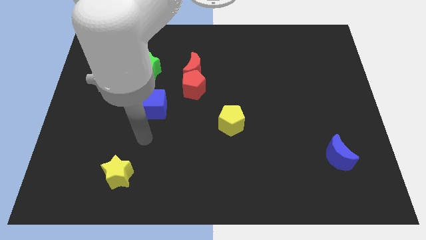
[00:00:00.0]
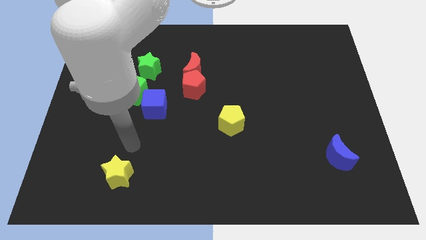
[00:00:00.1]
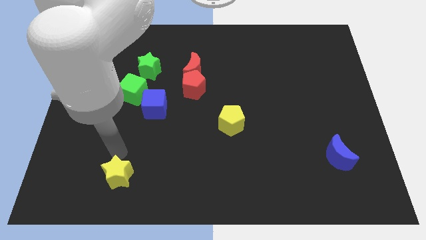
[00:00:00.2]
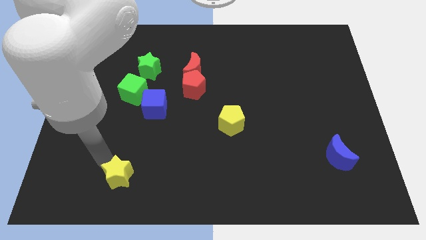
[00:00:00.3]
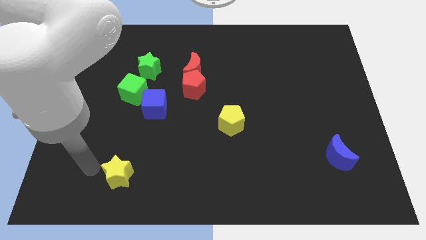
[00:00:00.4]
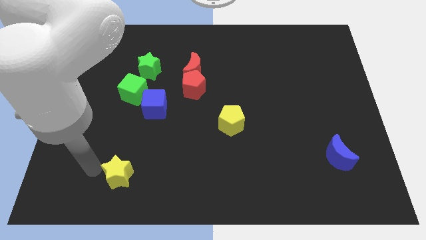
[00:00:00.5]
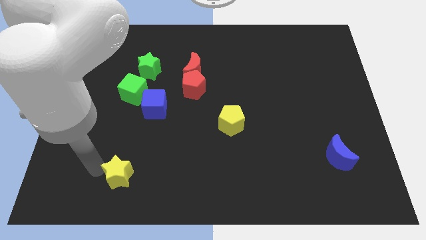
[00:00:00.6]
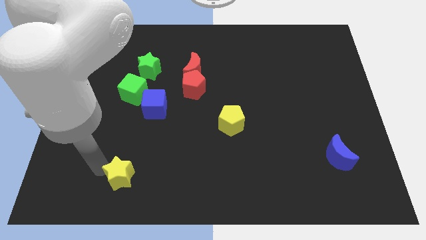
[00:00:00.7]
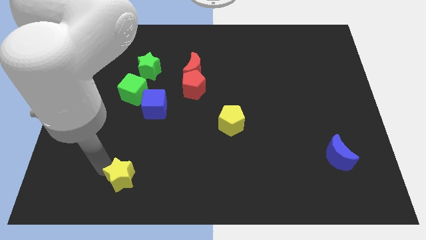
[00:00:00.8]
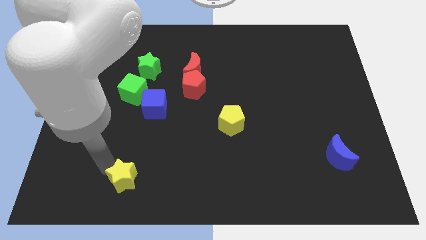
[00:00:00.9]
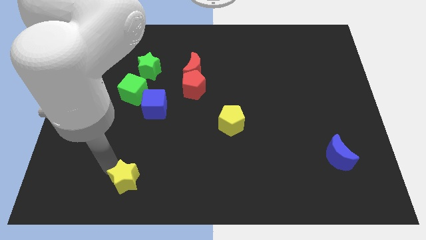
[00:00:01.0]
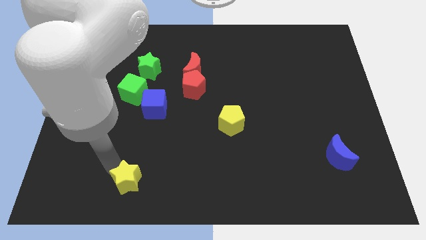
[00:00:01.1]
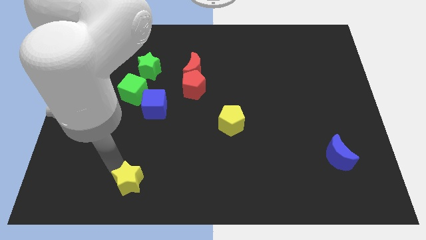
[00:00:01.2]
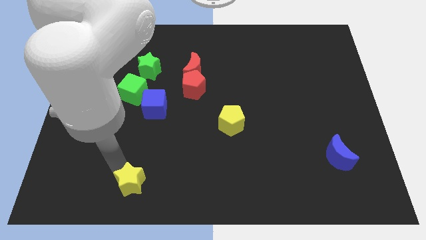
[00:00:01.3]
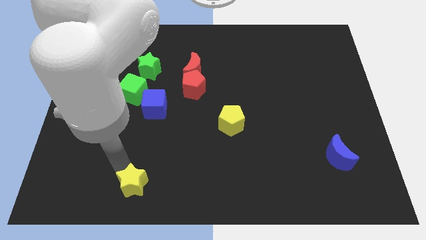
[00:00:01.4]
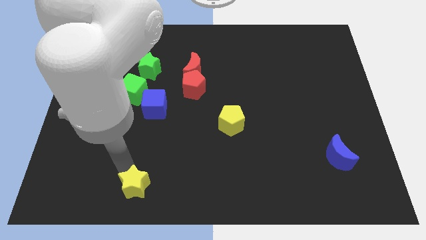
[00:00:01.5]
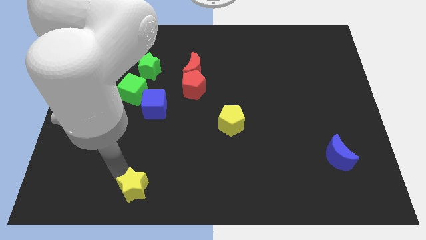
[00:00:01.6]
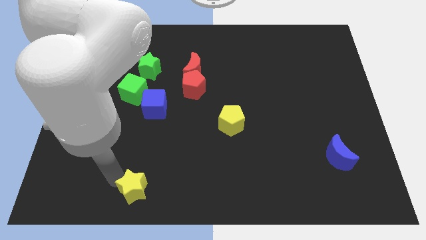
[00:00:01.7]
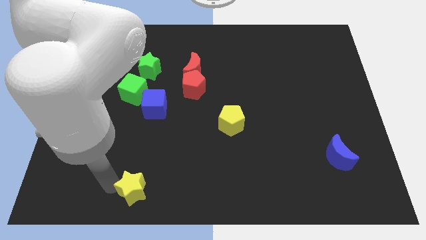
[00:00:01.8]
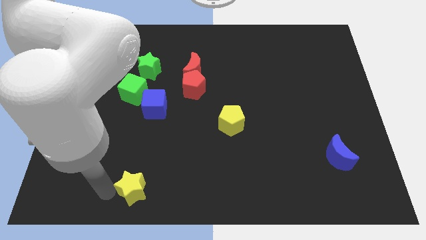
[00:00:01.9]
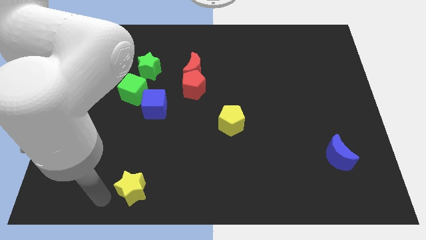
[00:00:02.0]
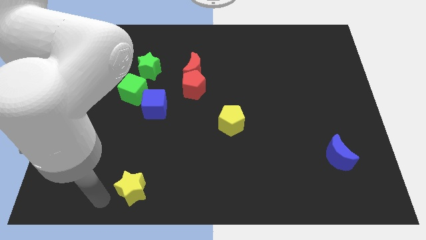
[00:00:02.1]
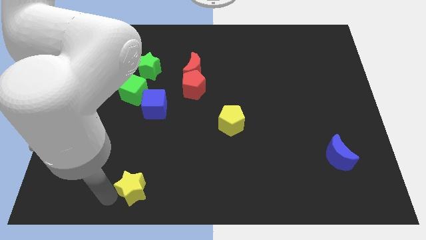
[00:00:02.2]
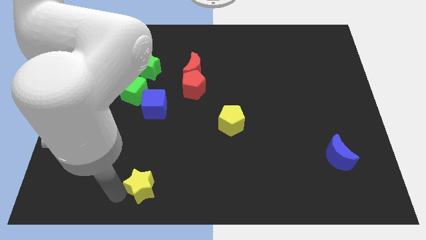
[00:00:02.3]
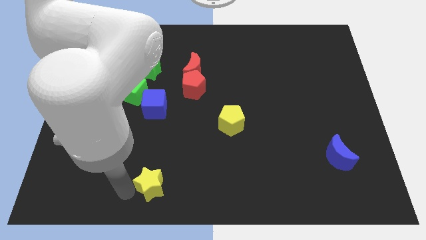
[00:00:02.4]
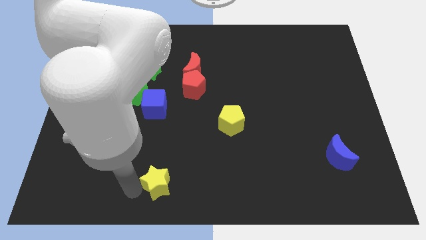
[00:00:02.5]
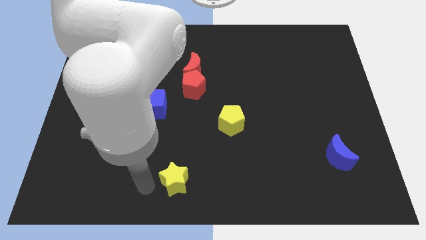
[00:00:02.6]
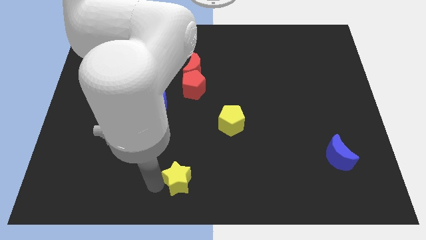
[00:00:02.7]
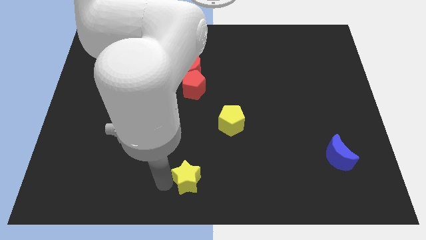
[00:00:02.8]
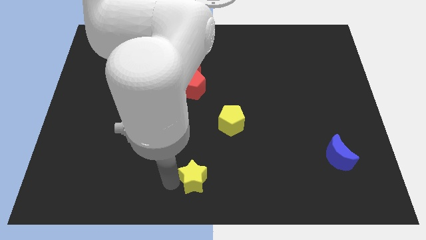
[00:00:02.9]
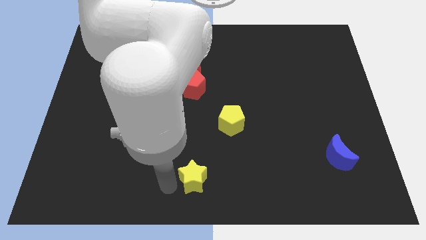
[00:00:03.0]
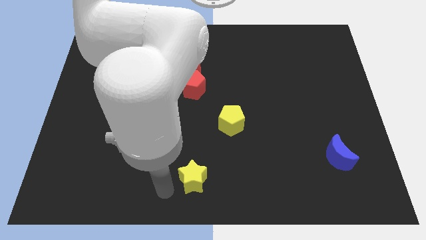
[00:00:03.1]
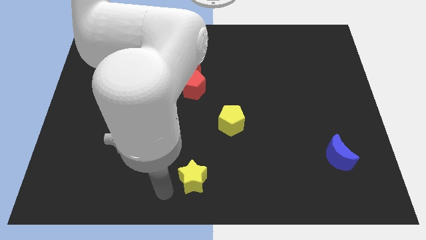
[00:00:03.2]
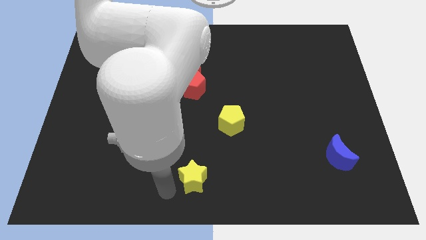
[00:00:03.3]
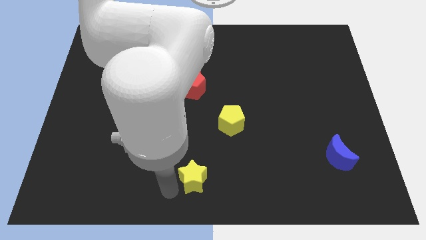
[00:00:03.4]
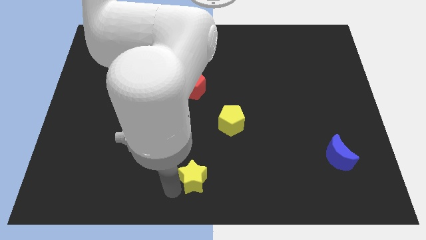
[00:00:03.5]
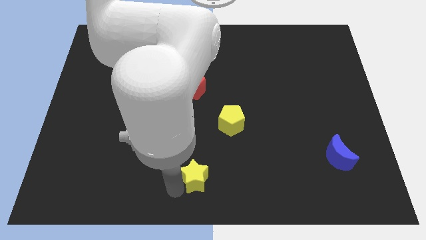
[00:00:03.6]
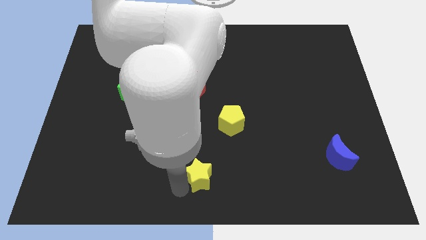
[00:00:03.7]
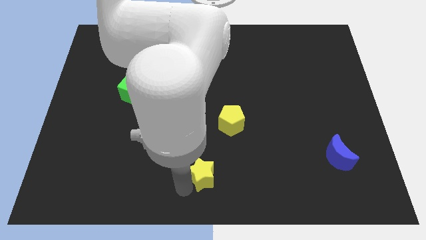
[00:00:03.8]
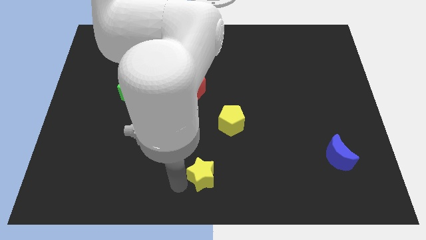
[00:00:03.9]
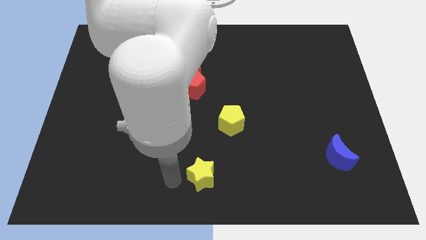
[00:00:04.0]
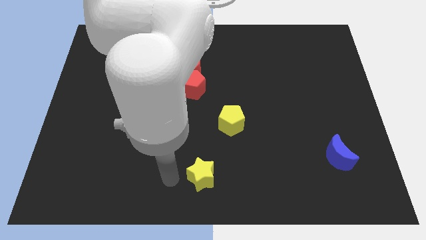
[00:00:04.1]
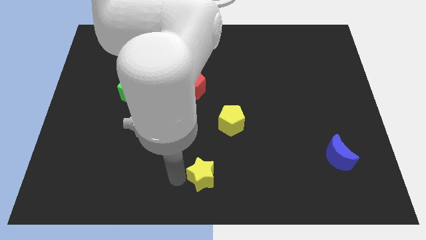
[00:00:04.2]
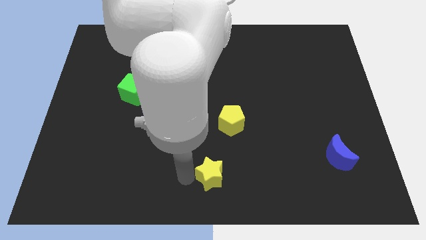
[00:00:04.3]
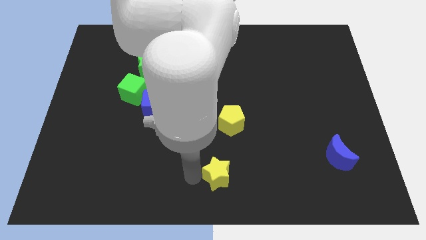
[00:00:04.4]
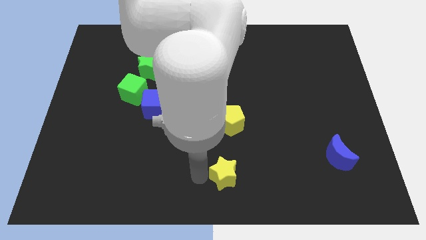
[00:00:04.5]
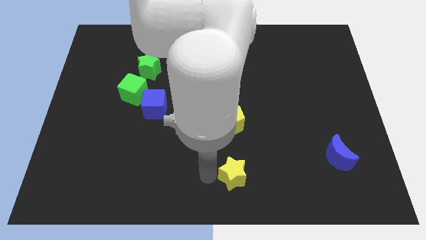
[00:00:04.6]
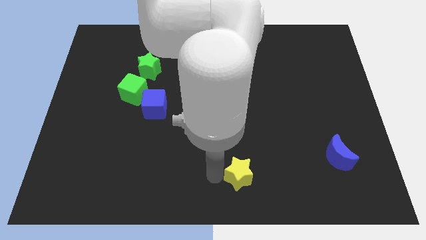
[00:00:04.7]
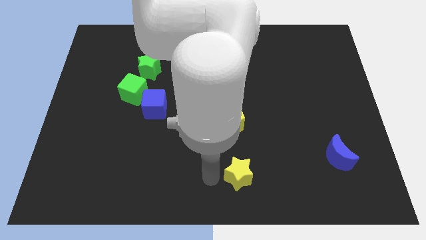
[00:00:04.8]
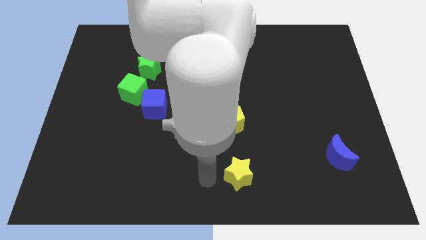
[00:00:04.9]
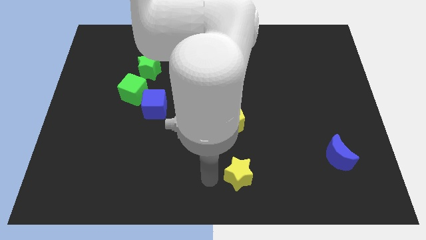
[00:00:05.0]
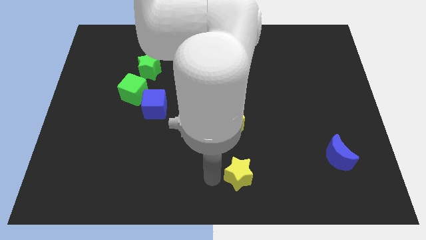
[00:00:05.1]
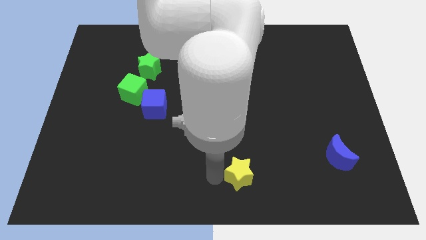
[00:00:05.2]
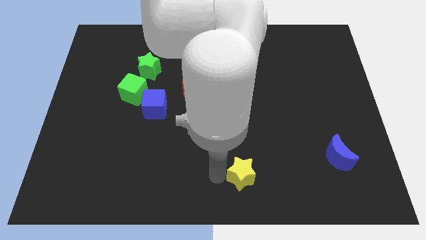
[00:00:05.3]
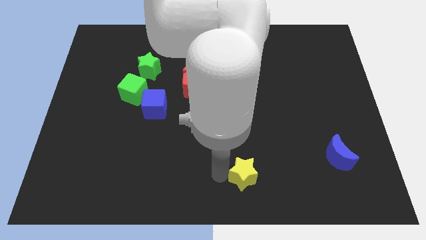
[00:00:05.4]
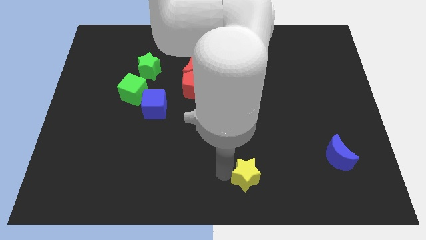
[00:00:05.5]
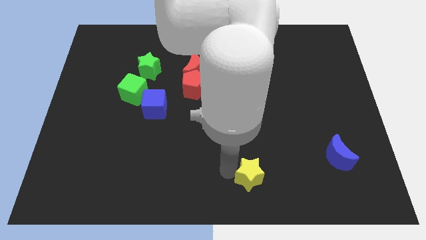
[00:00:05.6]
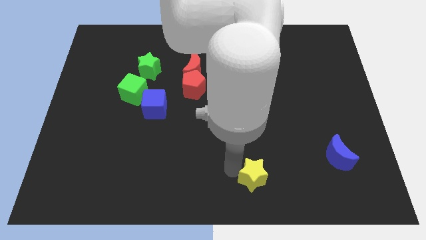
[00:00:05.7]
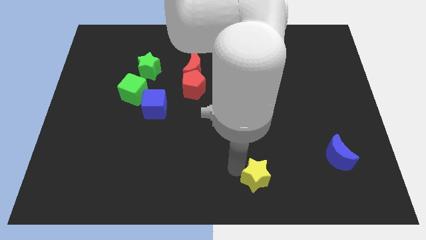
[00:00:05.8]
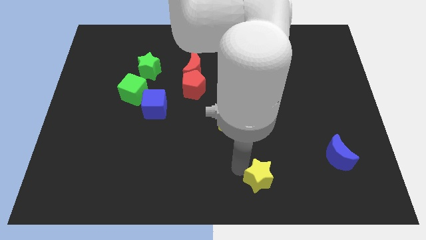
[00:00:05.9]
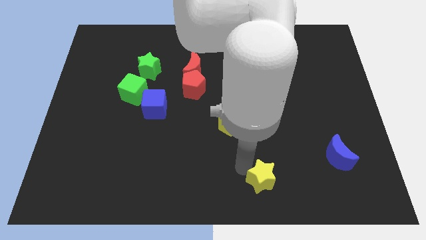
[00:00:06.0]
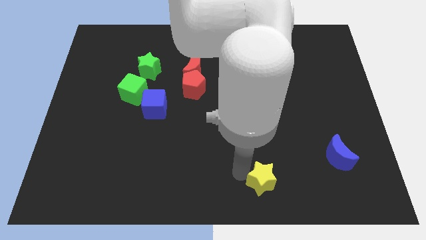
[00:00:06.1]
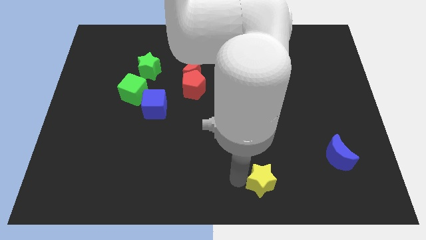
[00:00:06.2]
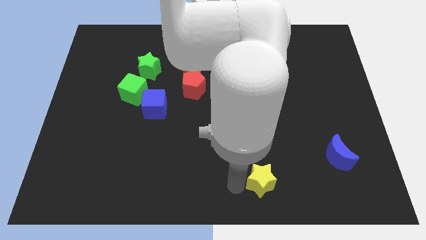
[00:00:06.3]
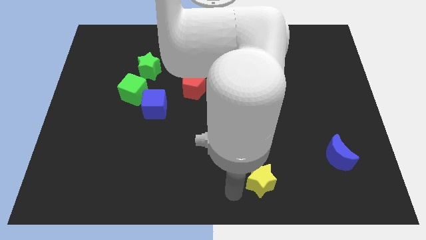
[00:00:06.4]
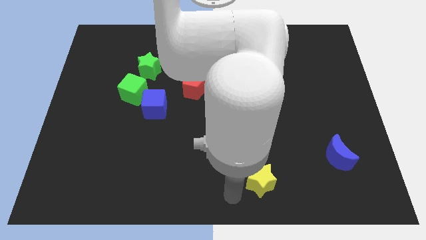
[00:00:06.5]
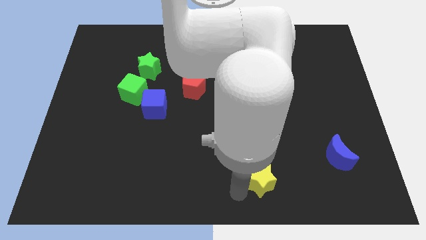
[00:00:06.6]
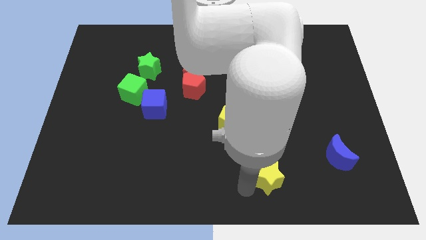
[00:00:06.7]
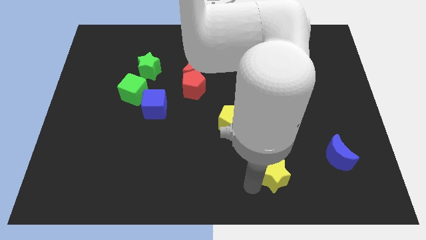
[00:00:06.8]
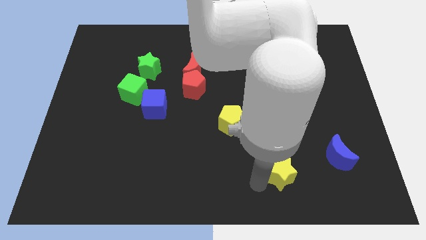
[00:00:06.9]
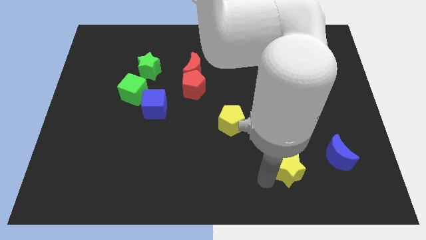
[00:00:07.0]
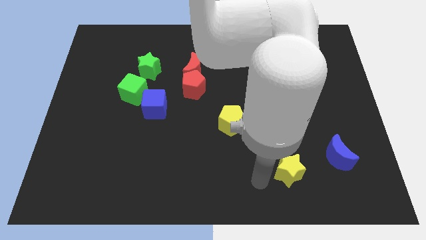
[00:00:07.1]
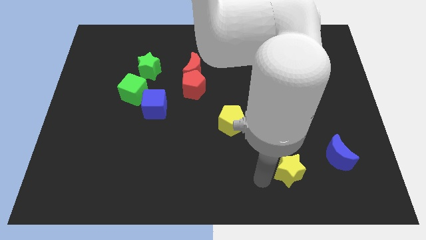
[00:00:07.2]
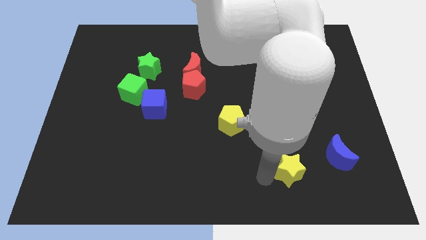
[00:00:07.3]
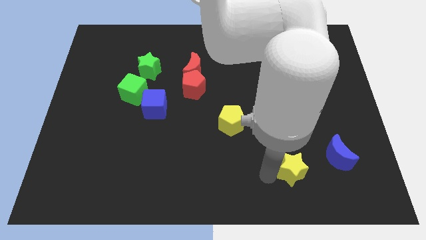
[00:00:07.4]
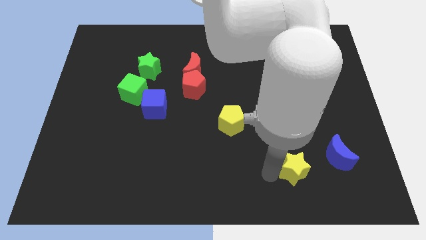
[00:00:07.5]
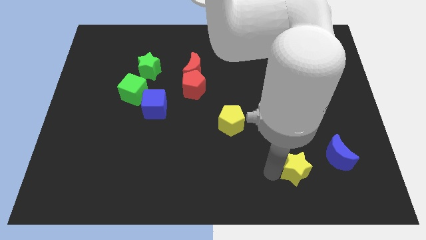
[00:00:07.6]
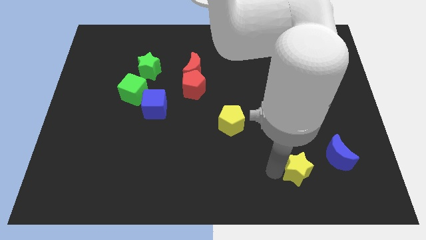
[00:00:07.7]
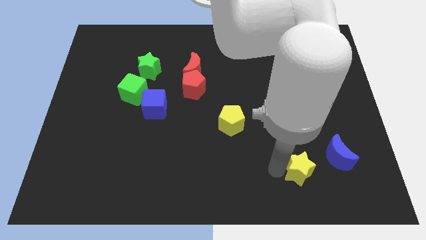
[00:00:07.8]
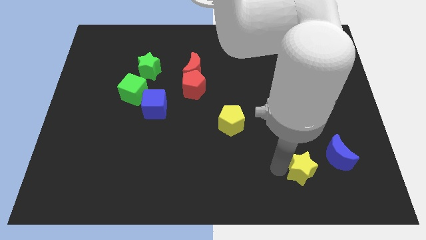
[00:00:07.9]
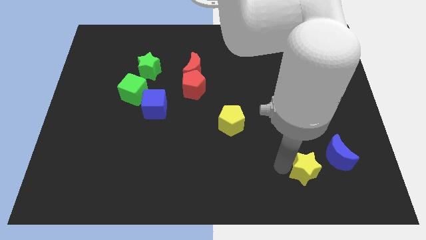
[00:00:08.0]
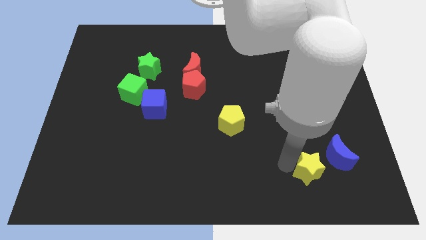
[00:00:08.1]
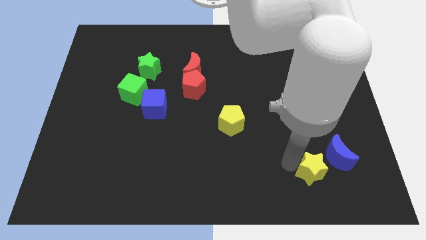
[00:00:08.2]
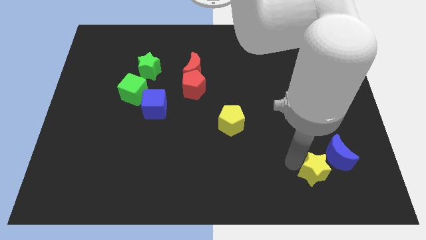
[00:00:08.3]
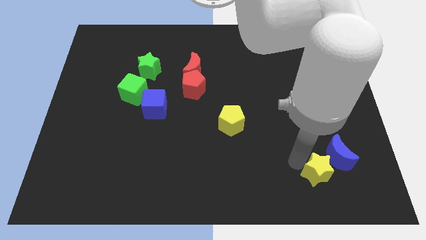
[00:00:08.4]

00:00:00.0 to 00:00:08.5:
slide the yellow star close to the blue moon
